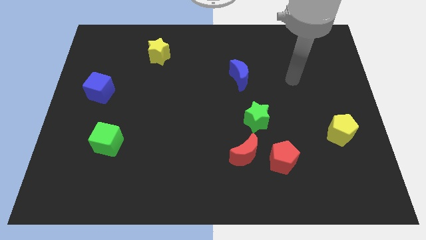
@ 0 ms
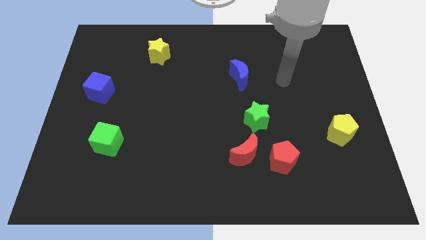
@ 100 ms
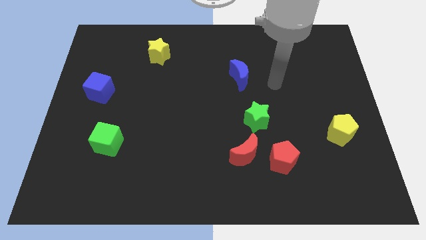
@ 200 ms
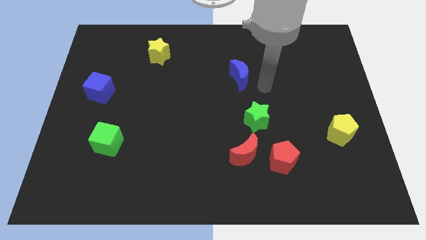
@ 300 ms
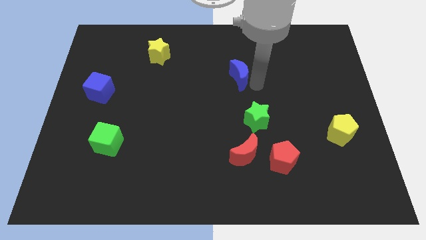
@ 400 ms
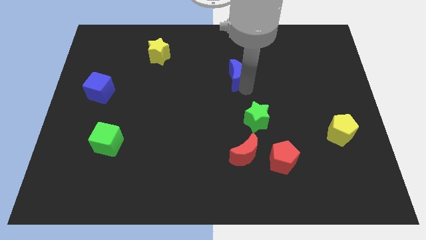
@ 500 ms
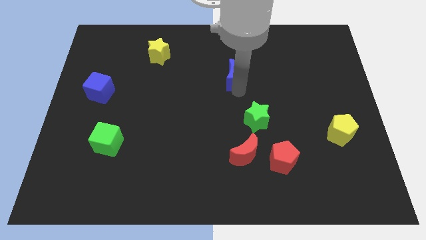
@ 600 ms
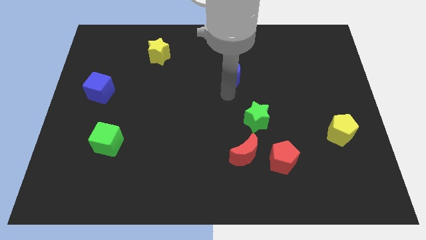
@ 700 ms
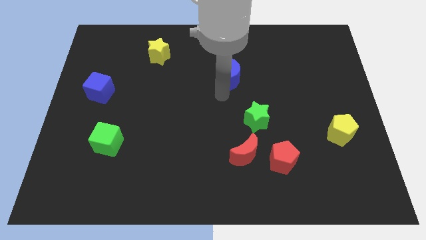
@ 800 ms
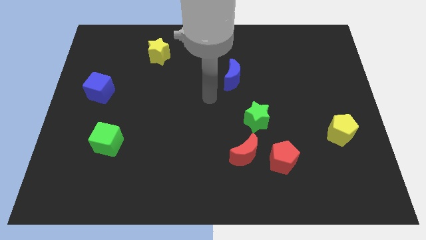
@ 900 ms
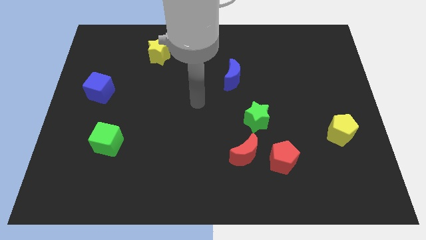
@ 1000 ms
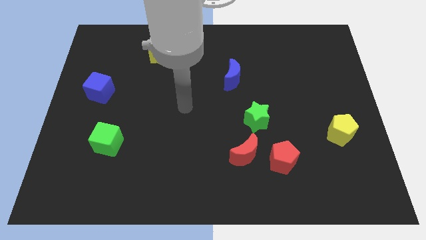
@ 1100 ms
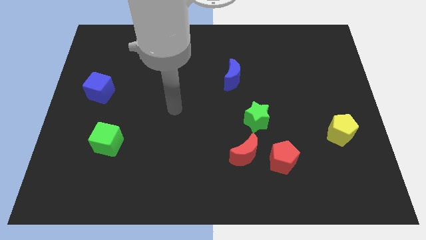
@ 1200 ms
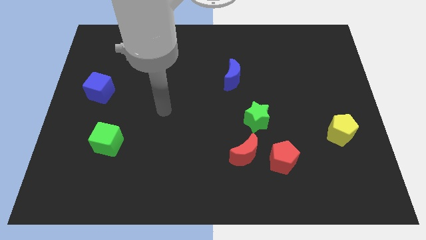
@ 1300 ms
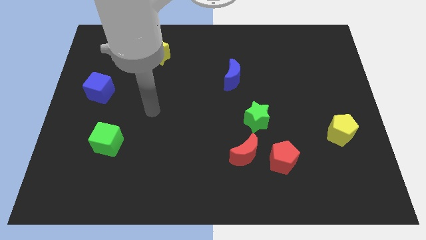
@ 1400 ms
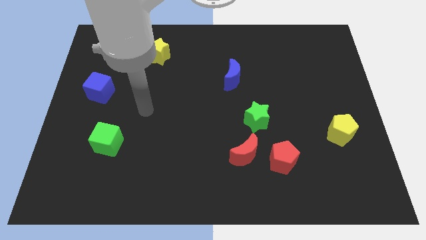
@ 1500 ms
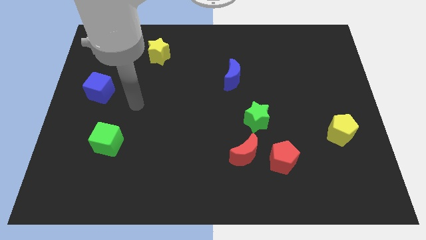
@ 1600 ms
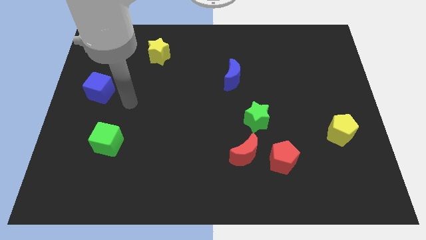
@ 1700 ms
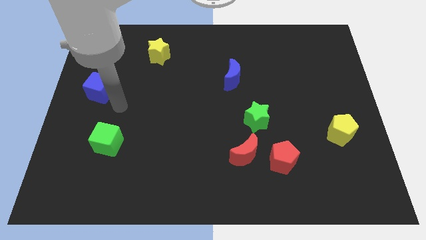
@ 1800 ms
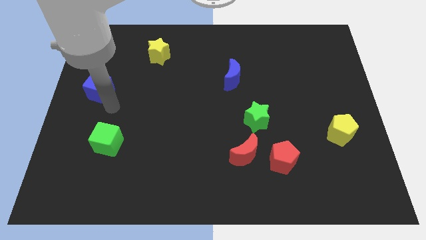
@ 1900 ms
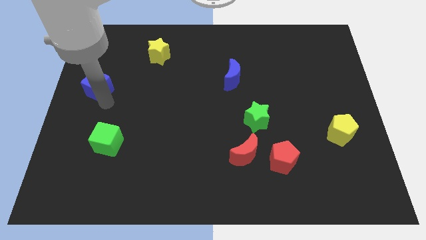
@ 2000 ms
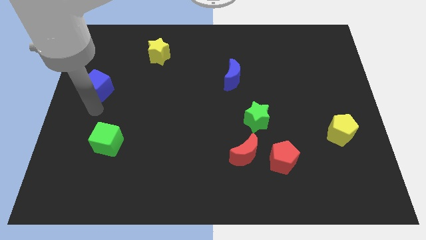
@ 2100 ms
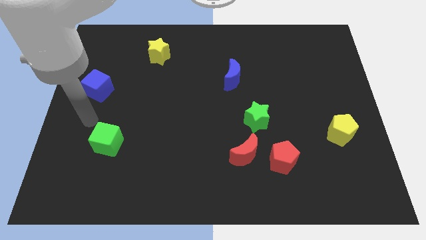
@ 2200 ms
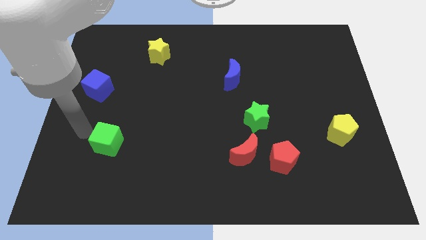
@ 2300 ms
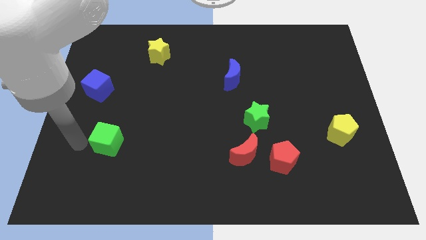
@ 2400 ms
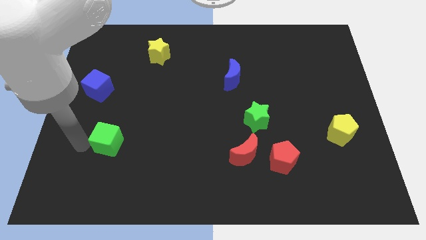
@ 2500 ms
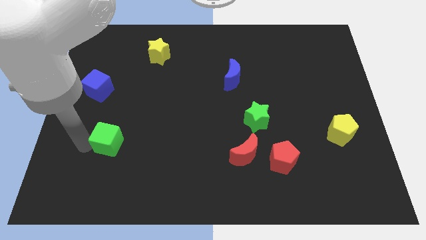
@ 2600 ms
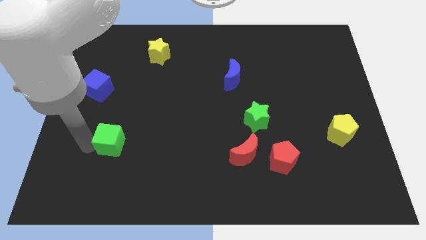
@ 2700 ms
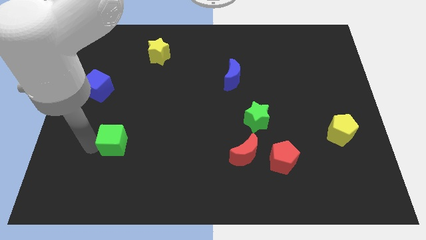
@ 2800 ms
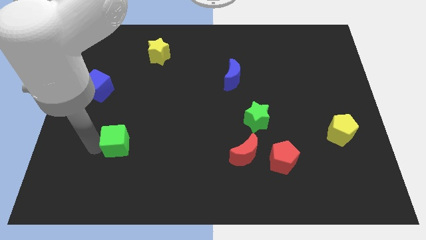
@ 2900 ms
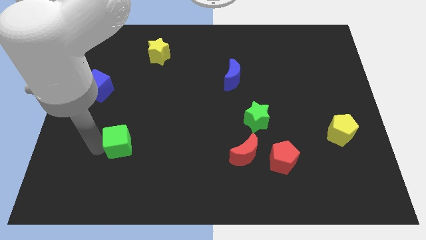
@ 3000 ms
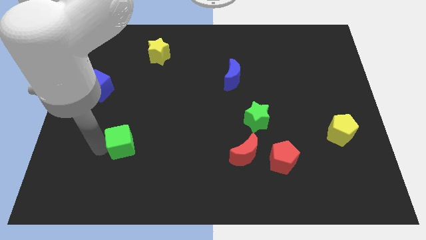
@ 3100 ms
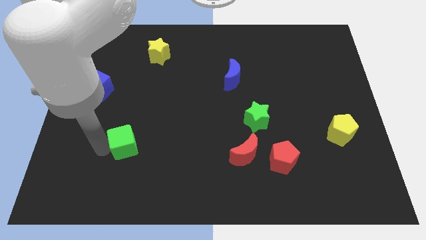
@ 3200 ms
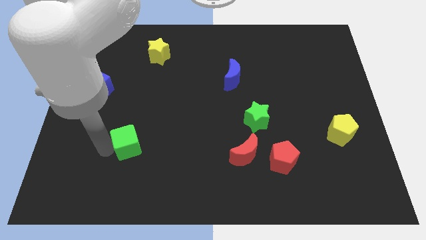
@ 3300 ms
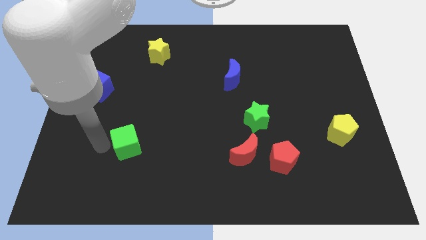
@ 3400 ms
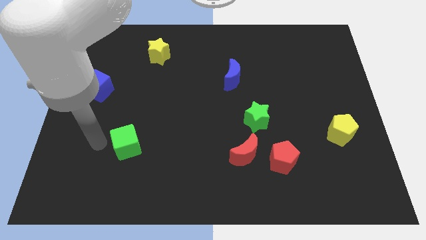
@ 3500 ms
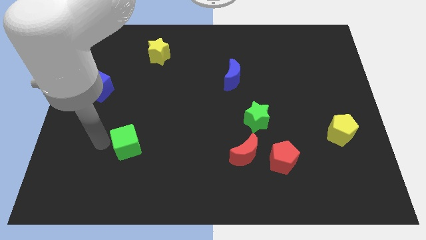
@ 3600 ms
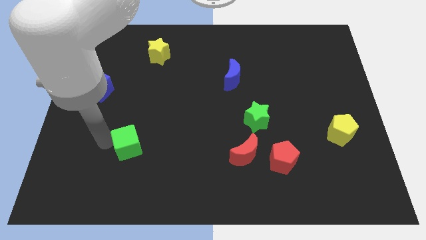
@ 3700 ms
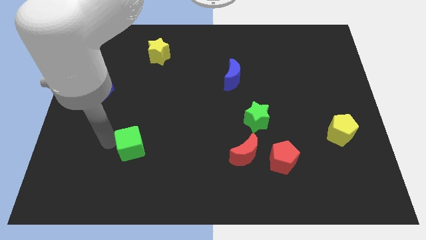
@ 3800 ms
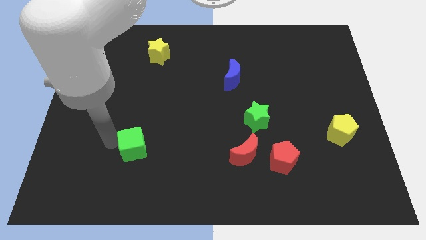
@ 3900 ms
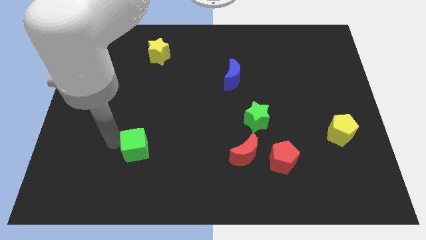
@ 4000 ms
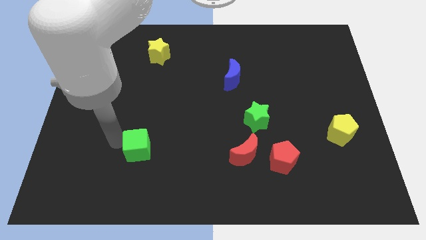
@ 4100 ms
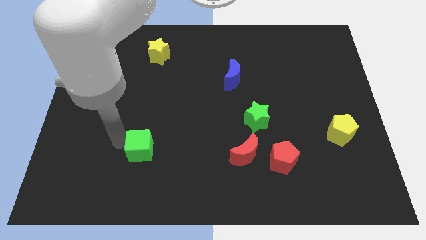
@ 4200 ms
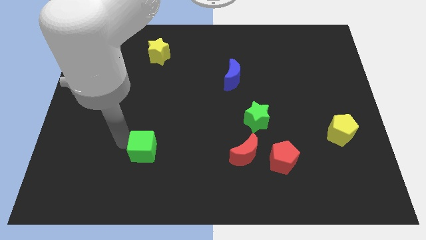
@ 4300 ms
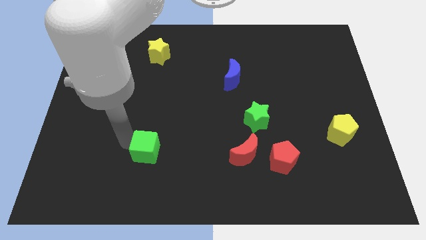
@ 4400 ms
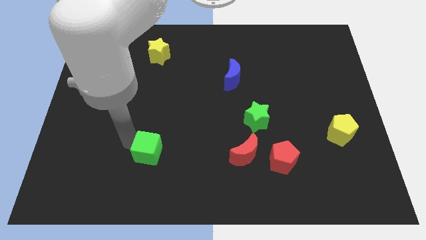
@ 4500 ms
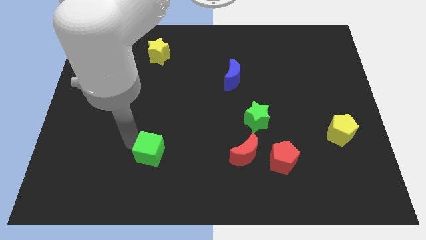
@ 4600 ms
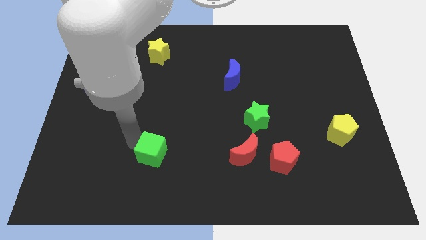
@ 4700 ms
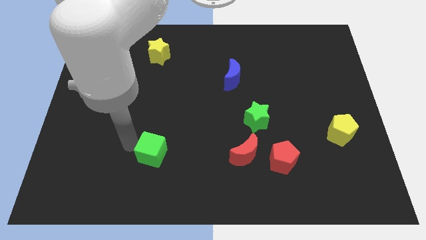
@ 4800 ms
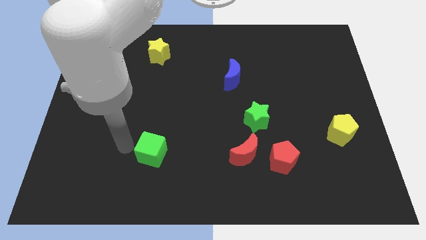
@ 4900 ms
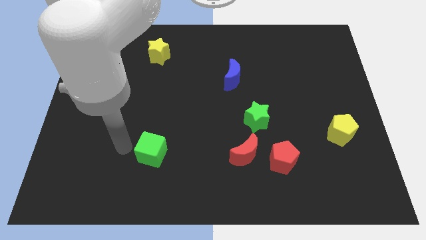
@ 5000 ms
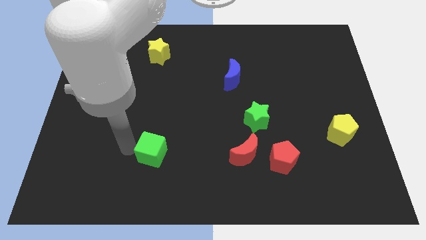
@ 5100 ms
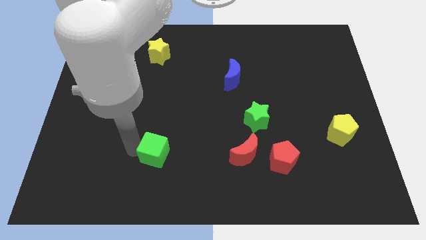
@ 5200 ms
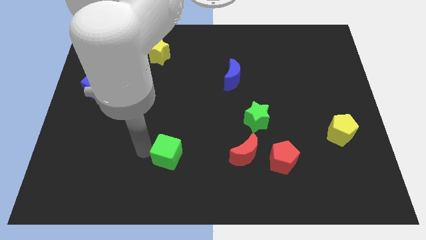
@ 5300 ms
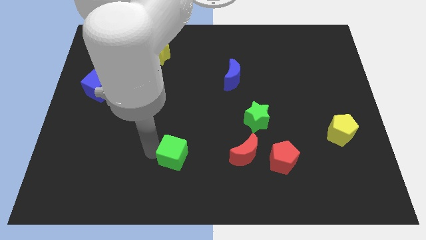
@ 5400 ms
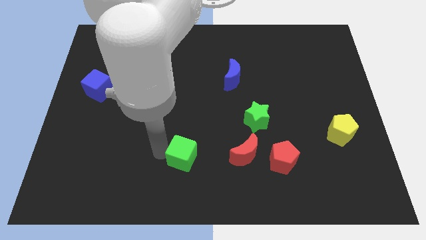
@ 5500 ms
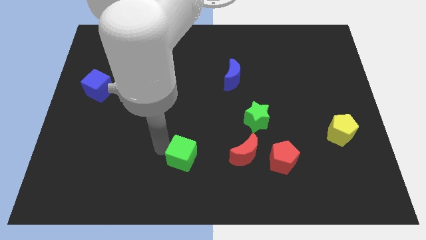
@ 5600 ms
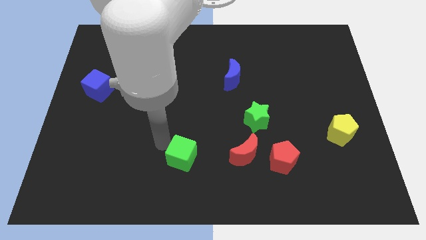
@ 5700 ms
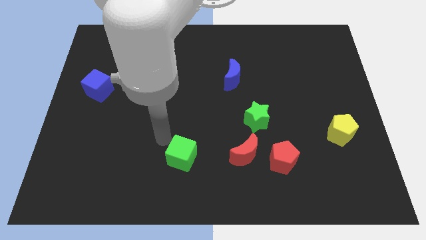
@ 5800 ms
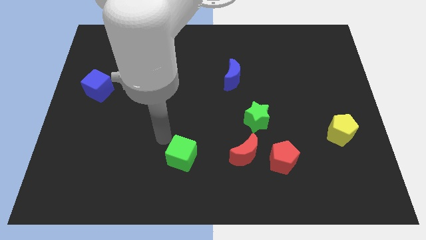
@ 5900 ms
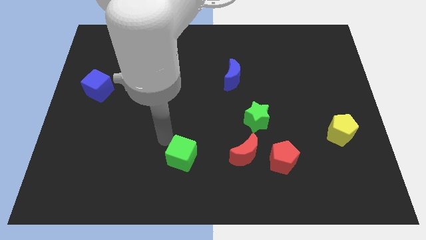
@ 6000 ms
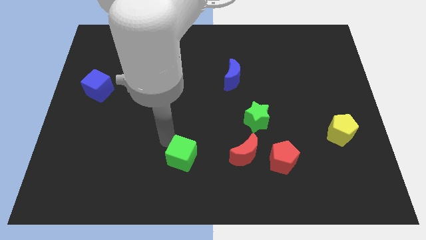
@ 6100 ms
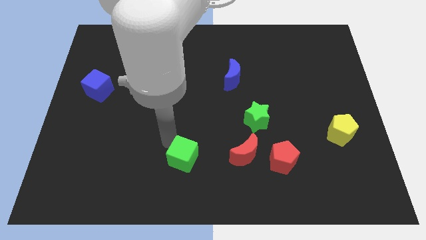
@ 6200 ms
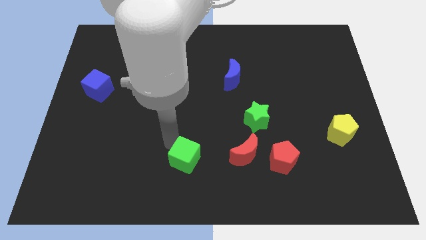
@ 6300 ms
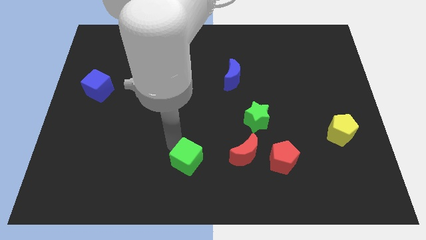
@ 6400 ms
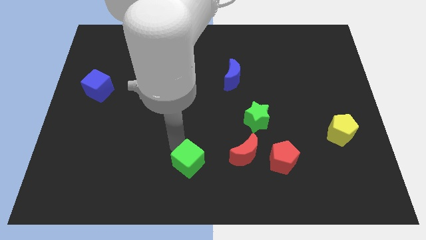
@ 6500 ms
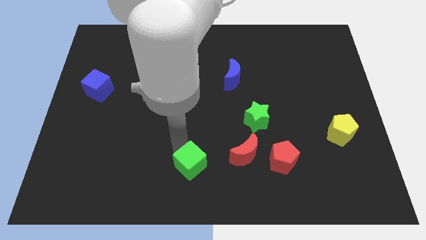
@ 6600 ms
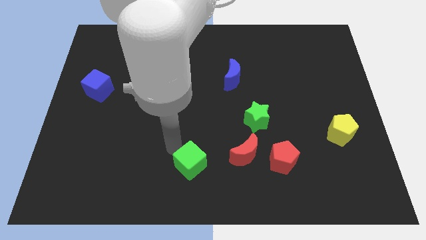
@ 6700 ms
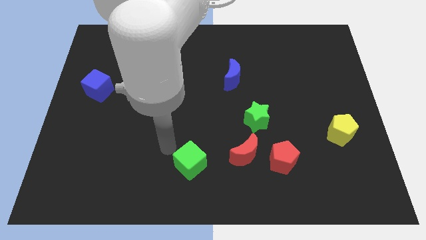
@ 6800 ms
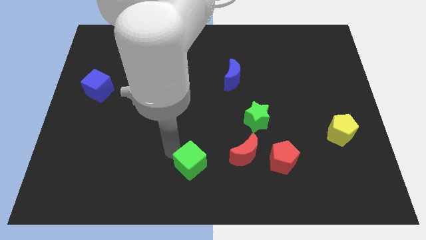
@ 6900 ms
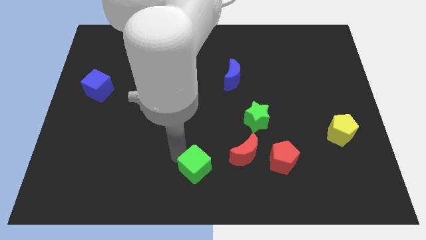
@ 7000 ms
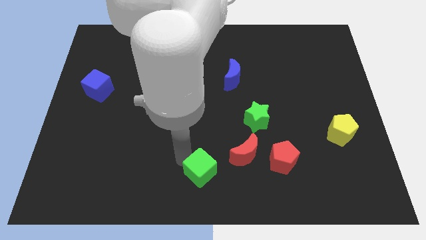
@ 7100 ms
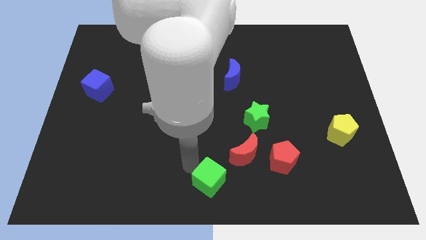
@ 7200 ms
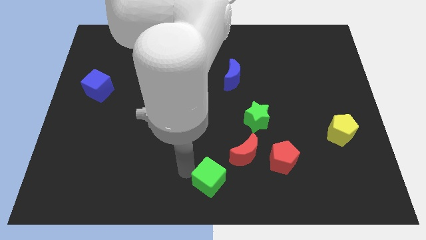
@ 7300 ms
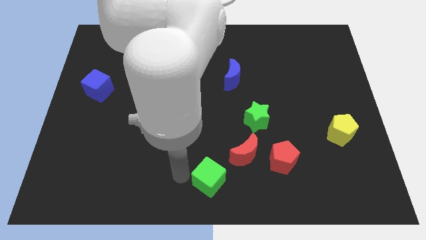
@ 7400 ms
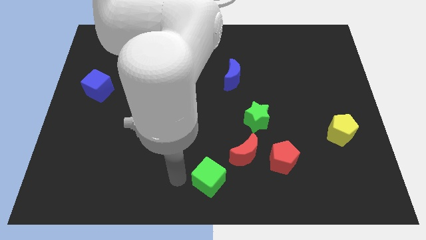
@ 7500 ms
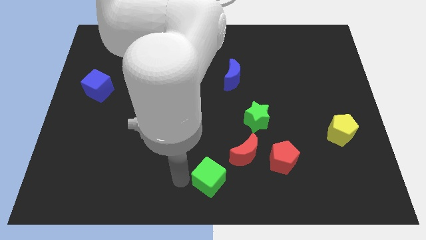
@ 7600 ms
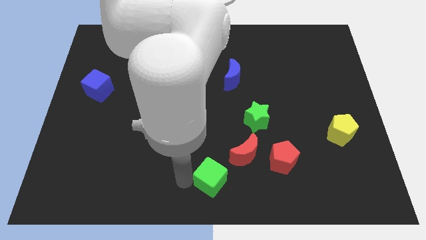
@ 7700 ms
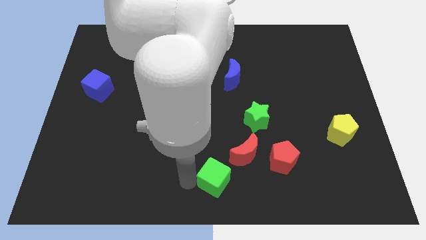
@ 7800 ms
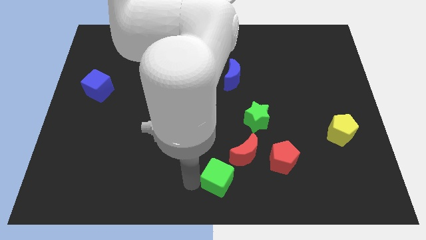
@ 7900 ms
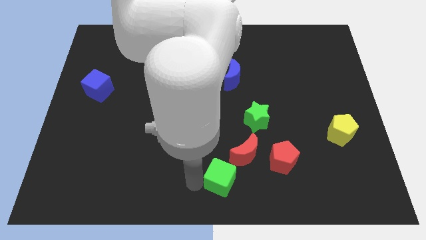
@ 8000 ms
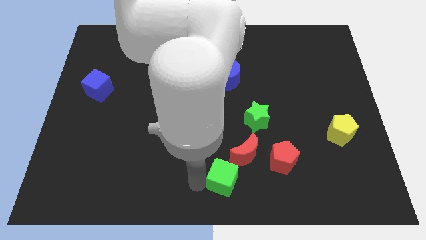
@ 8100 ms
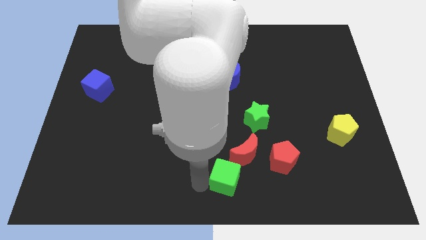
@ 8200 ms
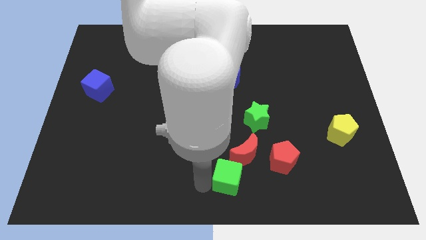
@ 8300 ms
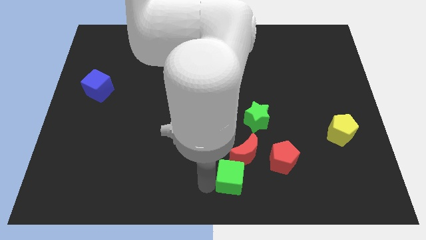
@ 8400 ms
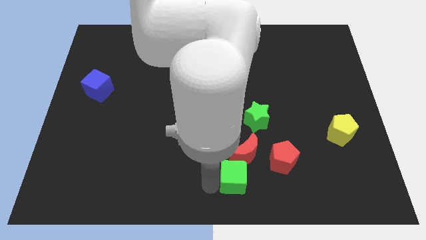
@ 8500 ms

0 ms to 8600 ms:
move the green cube to the bottom left of the red pentagon
